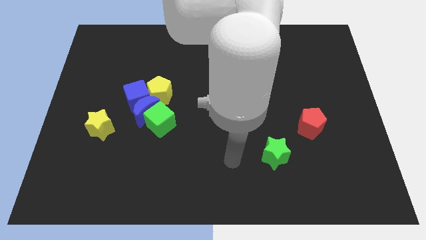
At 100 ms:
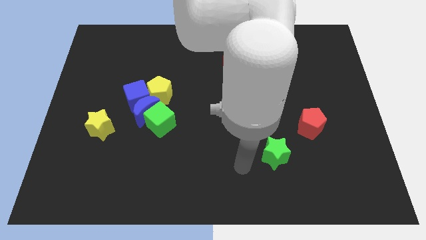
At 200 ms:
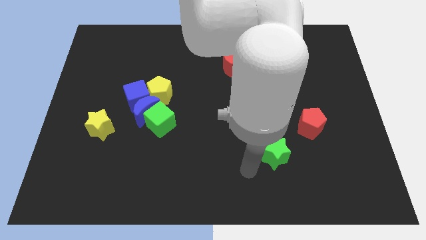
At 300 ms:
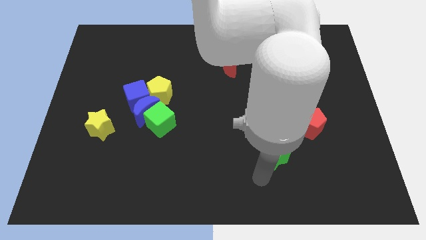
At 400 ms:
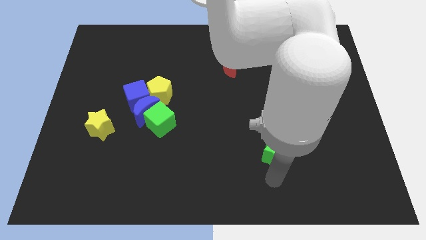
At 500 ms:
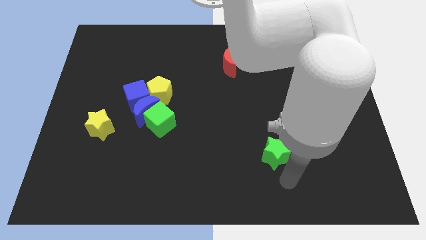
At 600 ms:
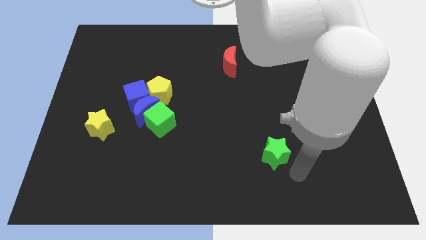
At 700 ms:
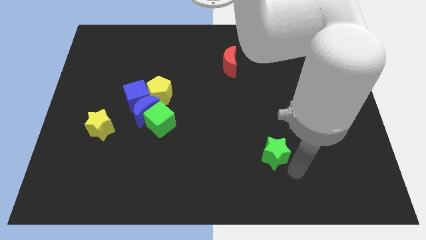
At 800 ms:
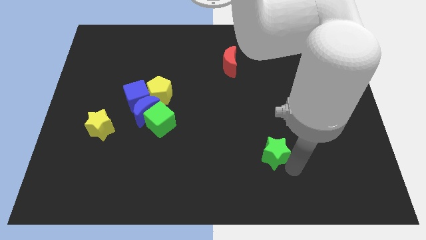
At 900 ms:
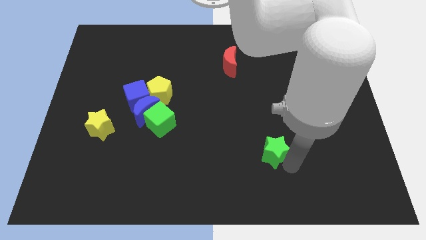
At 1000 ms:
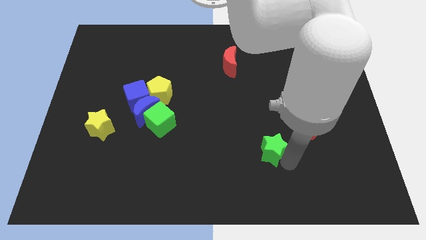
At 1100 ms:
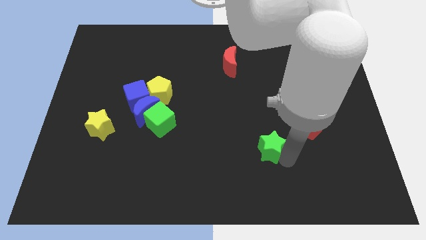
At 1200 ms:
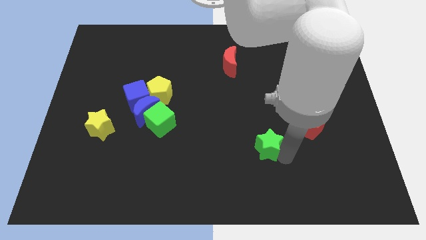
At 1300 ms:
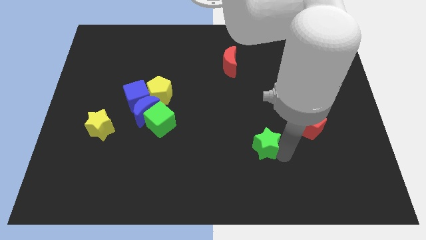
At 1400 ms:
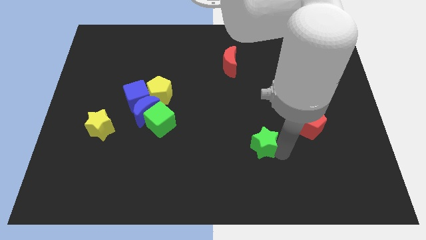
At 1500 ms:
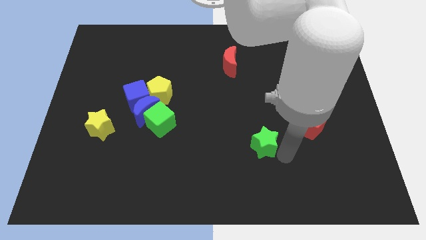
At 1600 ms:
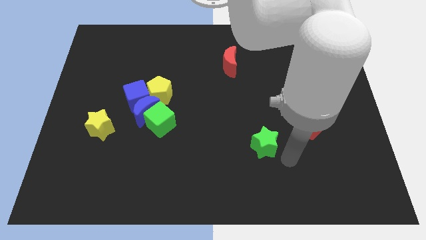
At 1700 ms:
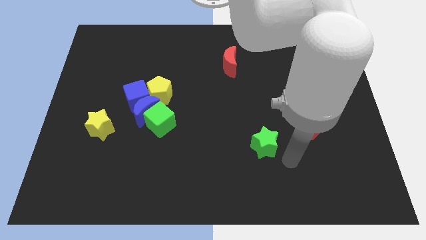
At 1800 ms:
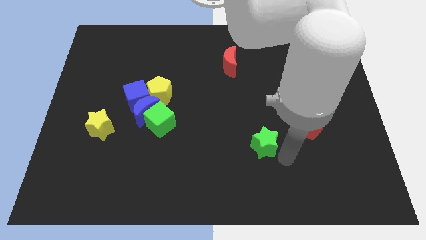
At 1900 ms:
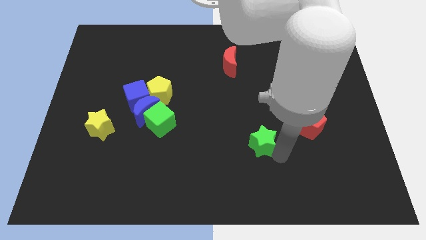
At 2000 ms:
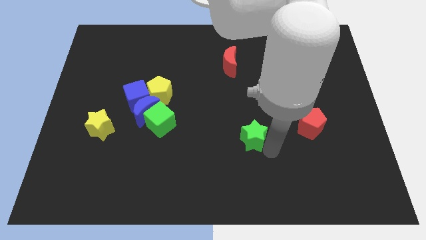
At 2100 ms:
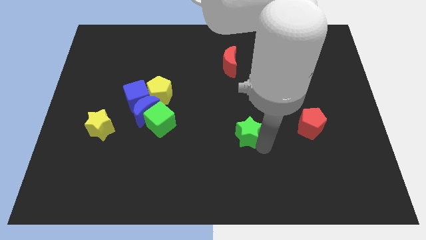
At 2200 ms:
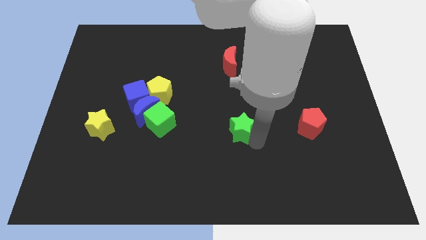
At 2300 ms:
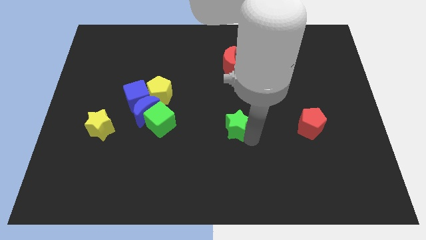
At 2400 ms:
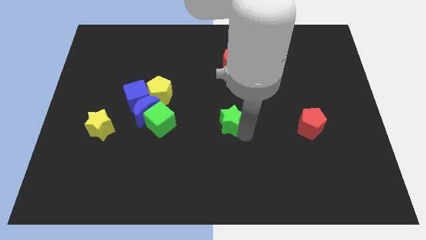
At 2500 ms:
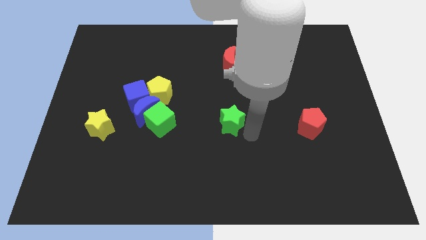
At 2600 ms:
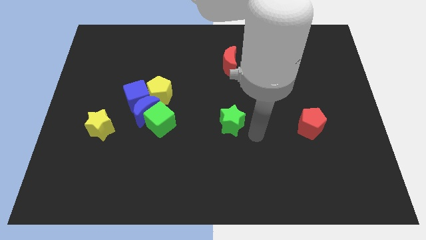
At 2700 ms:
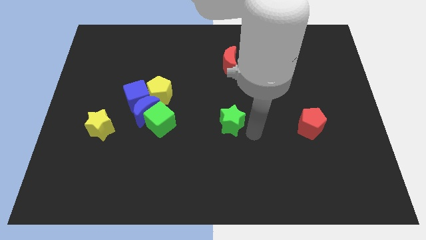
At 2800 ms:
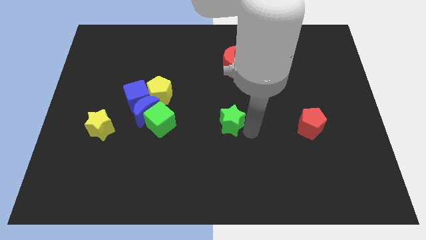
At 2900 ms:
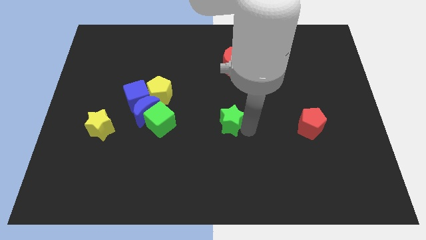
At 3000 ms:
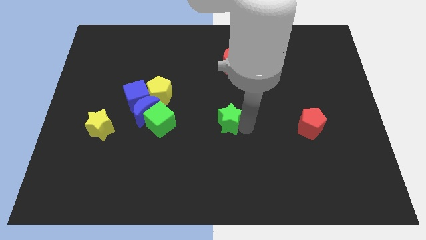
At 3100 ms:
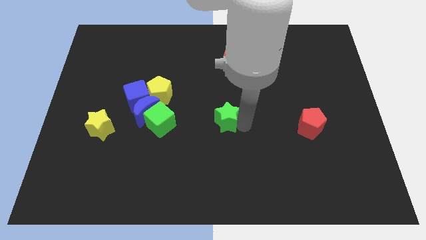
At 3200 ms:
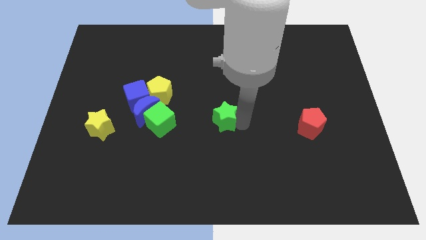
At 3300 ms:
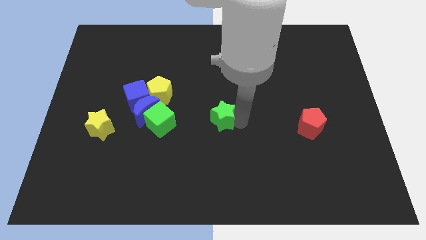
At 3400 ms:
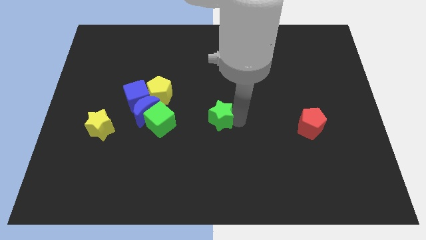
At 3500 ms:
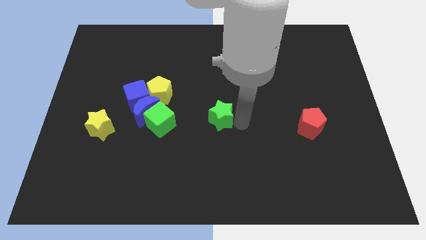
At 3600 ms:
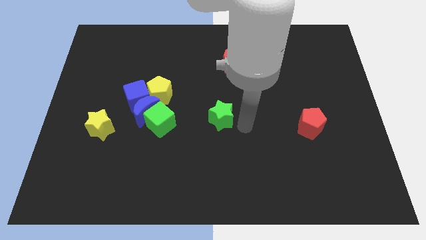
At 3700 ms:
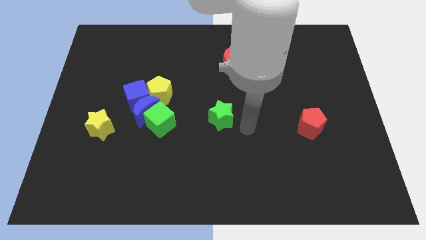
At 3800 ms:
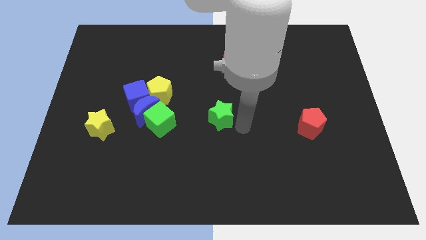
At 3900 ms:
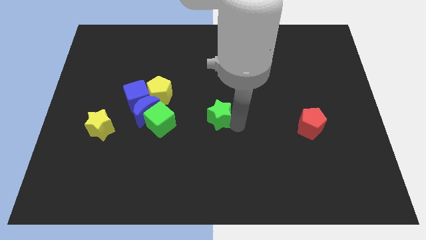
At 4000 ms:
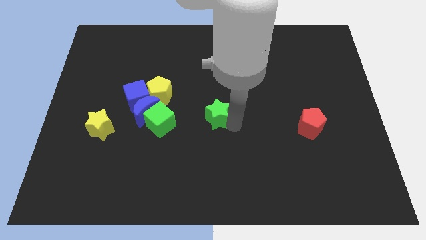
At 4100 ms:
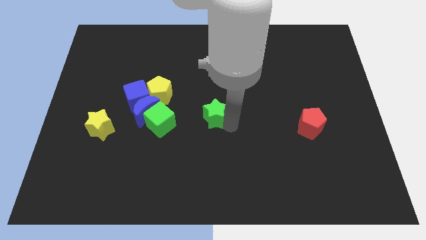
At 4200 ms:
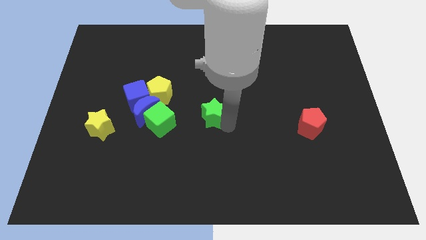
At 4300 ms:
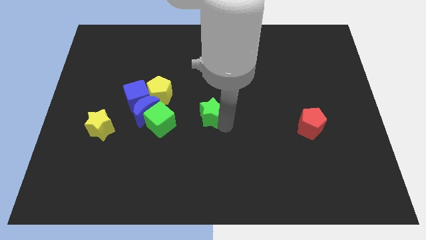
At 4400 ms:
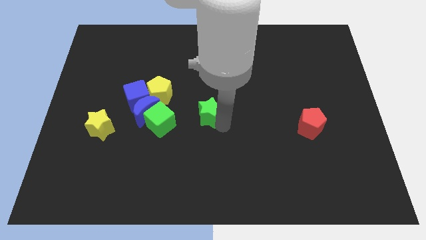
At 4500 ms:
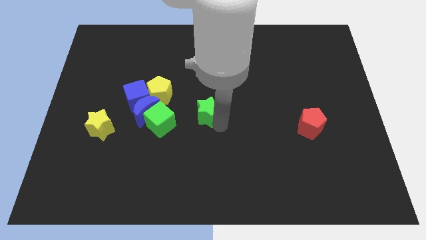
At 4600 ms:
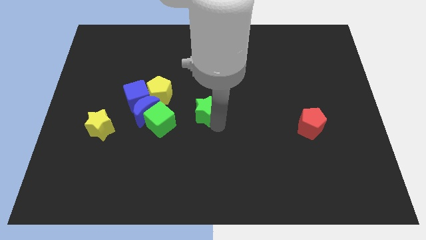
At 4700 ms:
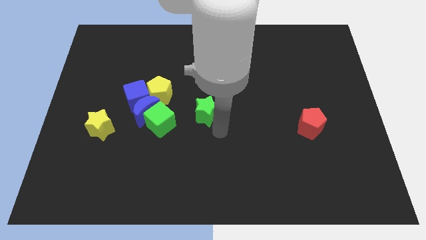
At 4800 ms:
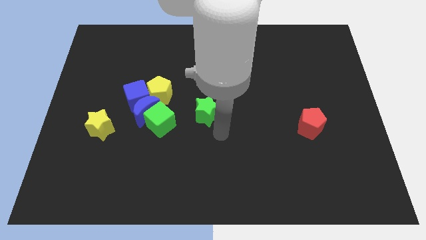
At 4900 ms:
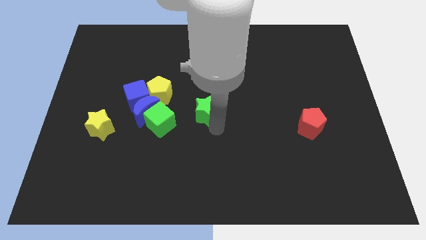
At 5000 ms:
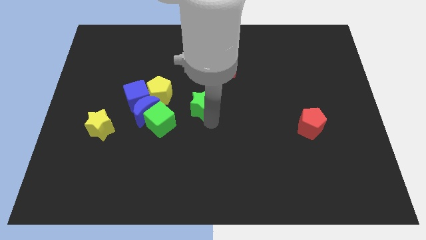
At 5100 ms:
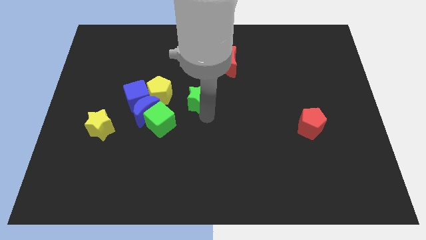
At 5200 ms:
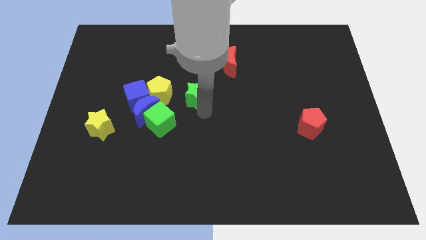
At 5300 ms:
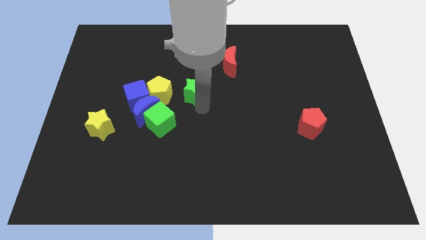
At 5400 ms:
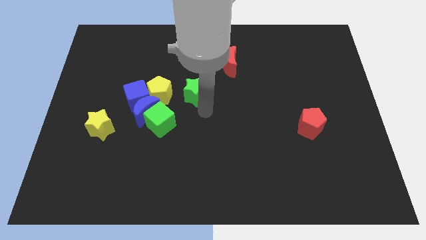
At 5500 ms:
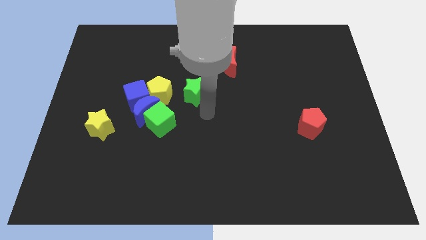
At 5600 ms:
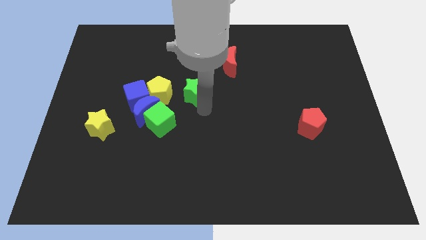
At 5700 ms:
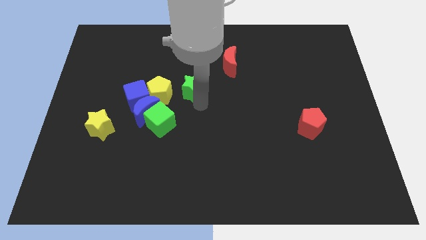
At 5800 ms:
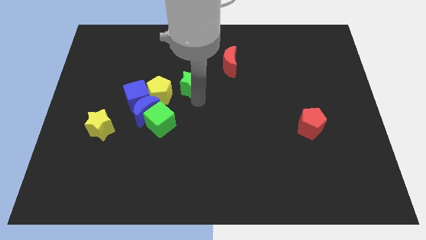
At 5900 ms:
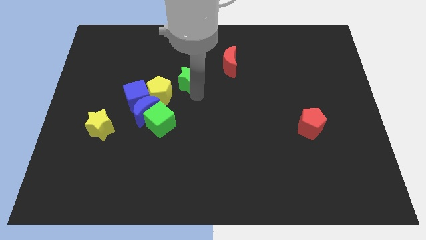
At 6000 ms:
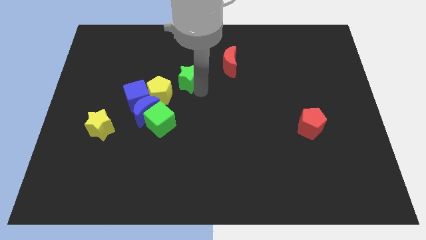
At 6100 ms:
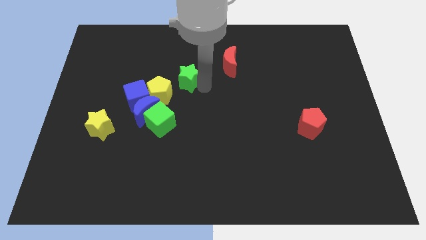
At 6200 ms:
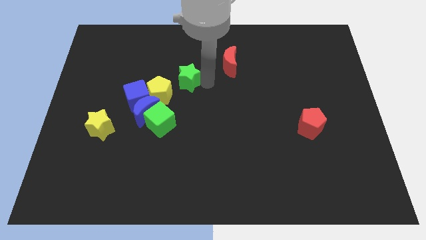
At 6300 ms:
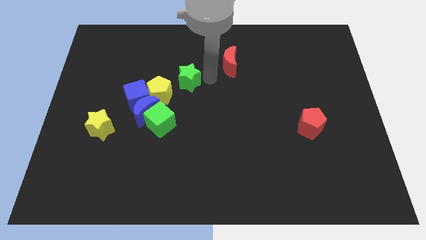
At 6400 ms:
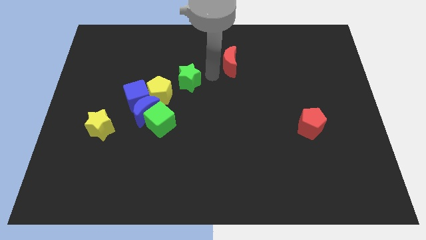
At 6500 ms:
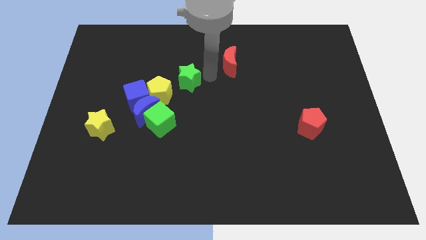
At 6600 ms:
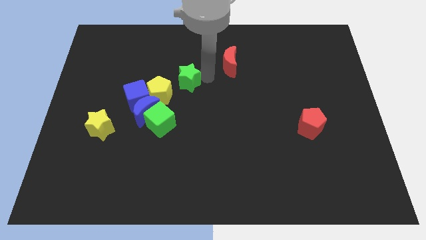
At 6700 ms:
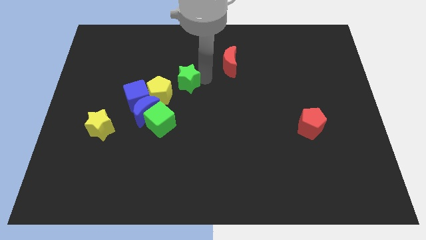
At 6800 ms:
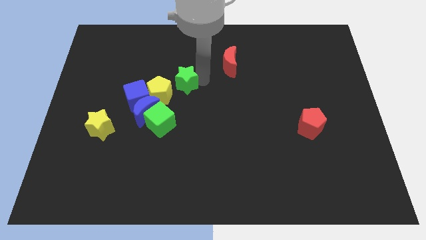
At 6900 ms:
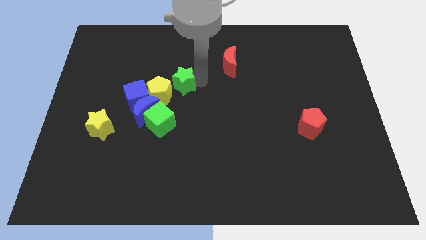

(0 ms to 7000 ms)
slide the green star to the top of the green cube

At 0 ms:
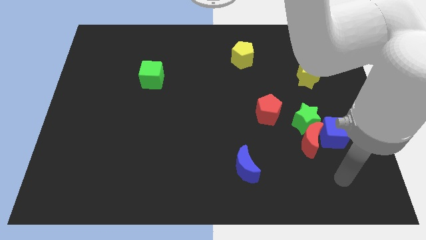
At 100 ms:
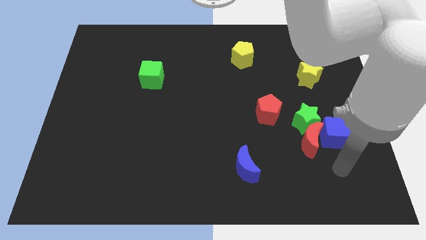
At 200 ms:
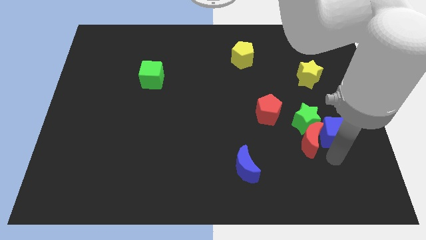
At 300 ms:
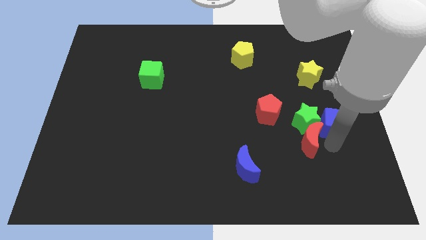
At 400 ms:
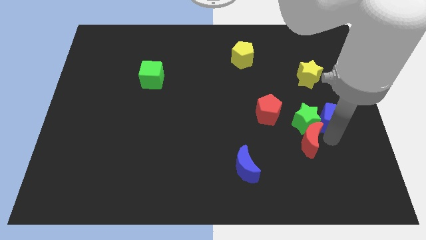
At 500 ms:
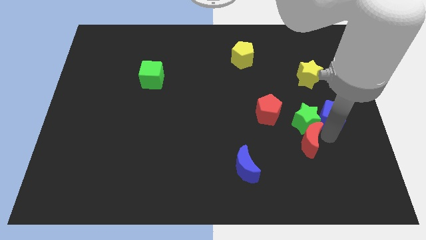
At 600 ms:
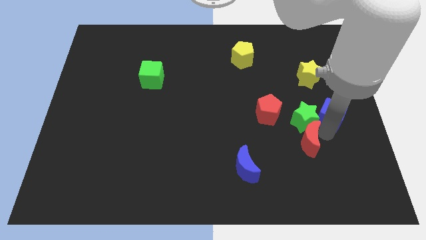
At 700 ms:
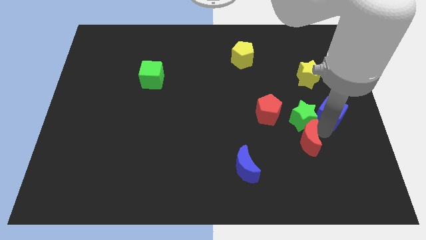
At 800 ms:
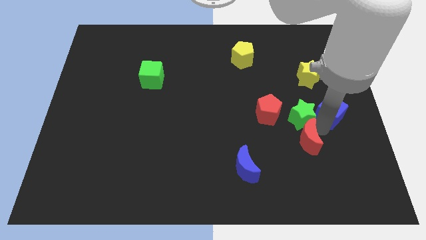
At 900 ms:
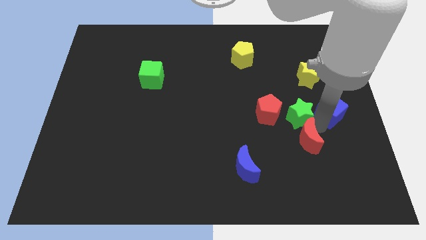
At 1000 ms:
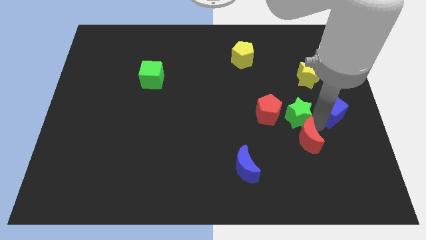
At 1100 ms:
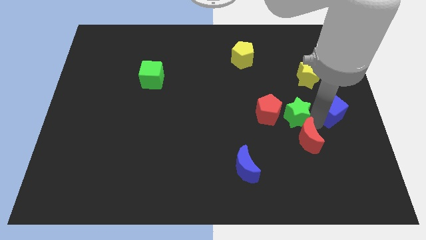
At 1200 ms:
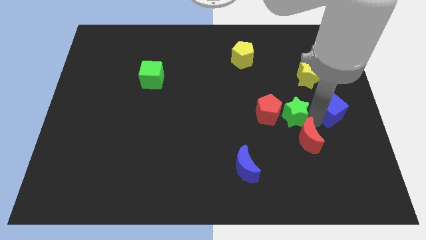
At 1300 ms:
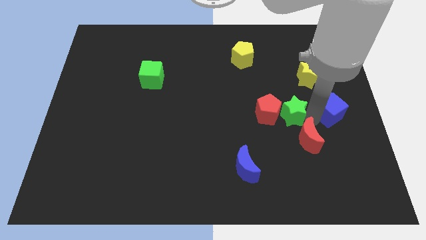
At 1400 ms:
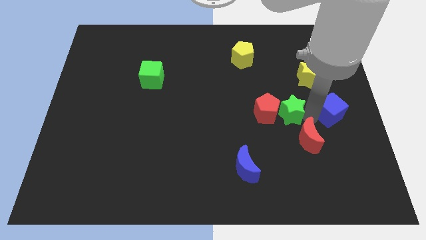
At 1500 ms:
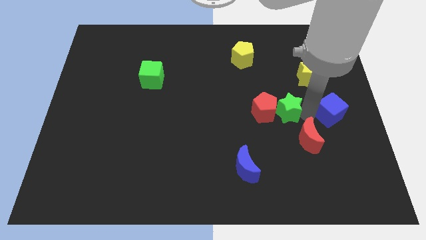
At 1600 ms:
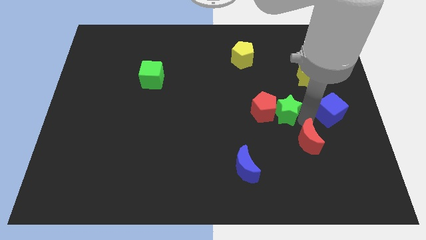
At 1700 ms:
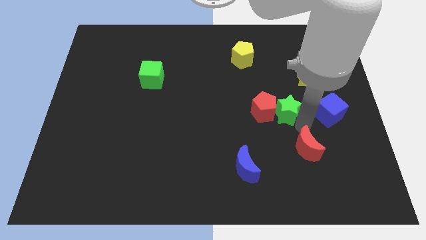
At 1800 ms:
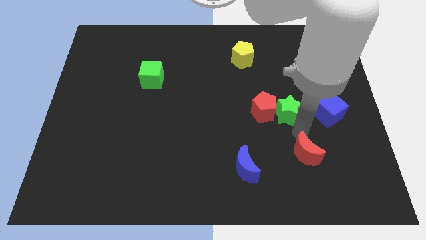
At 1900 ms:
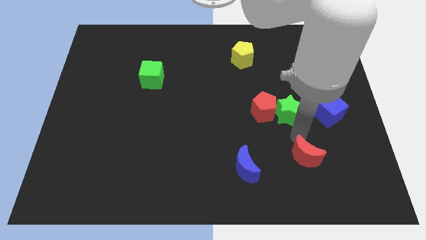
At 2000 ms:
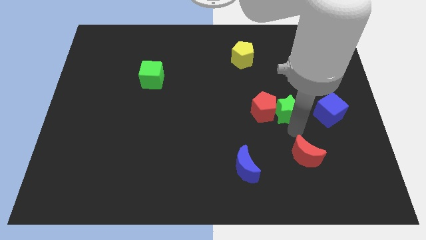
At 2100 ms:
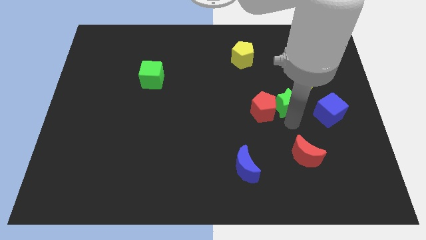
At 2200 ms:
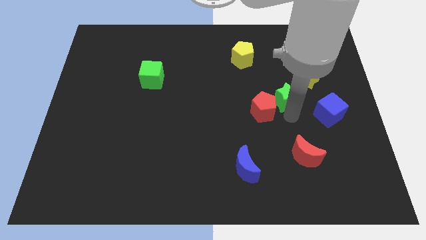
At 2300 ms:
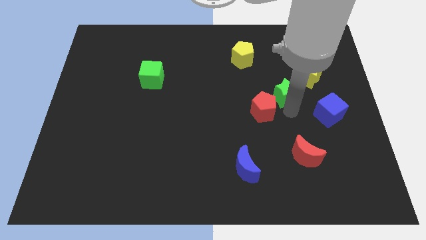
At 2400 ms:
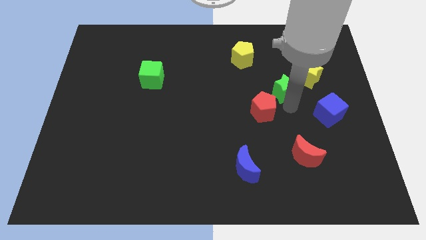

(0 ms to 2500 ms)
slide the green star left of the yellow star
